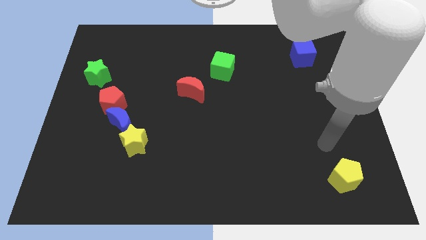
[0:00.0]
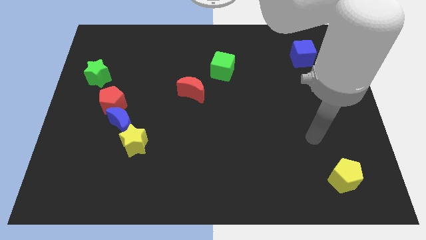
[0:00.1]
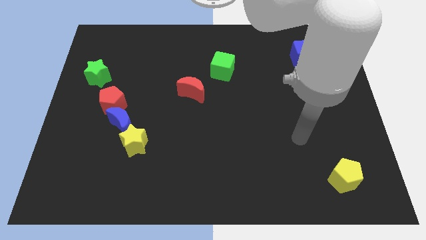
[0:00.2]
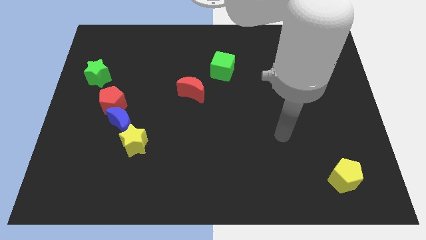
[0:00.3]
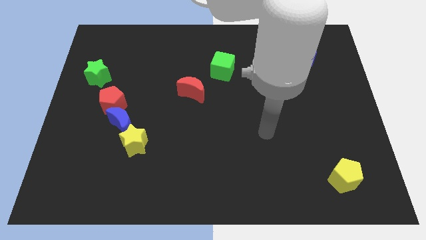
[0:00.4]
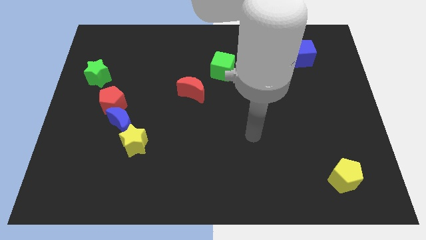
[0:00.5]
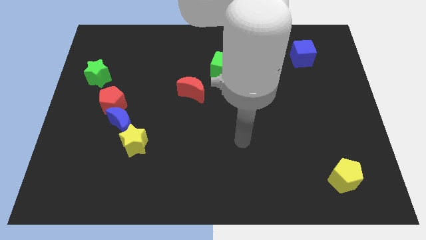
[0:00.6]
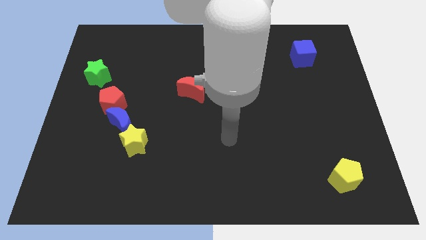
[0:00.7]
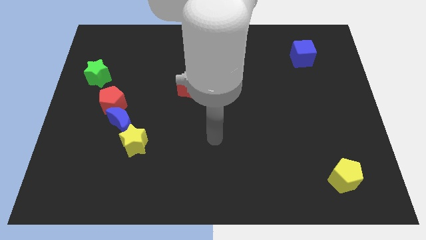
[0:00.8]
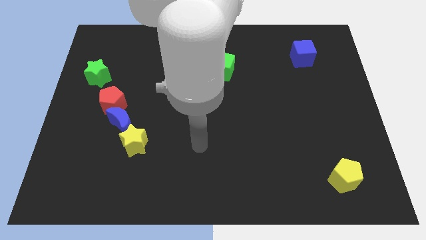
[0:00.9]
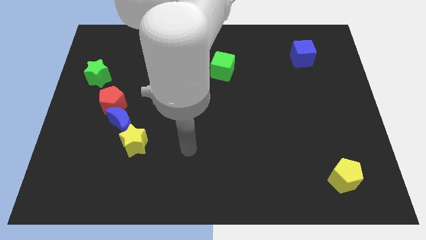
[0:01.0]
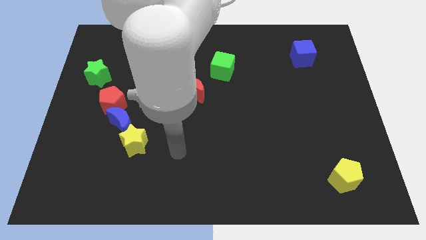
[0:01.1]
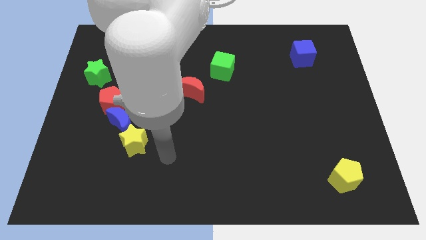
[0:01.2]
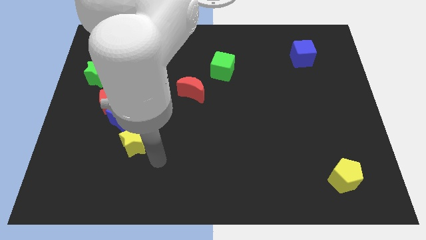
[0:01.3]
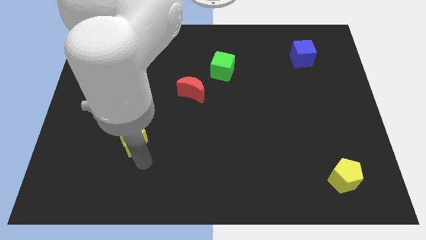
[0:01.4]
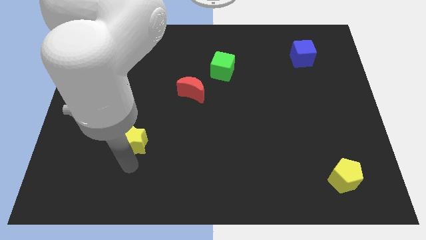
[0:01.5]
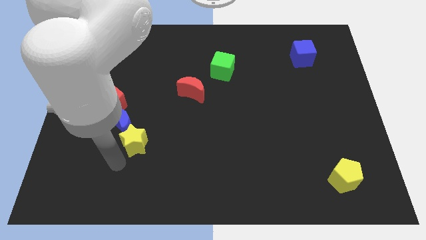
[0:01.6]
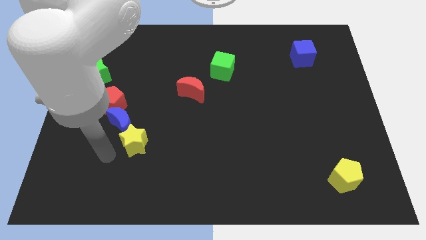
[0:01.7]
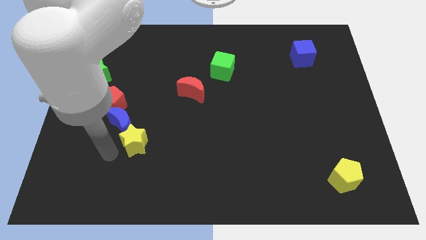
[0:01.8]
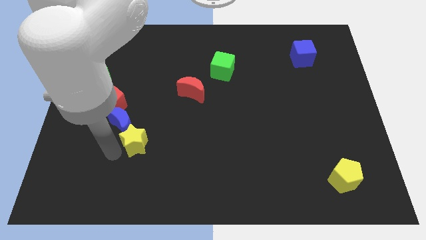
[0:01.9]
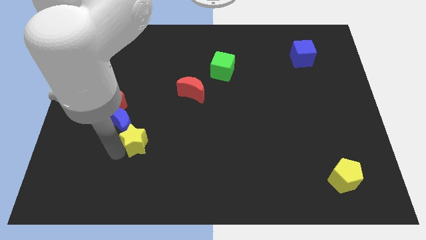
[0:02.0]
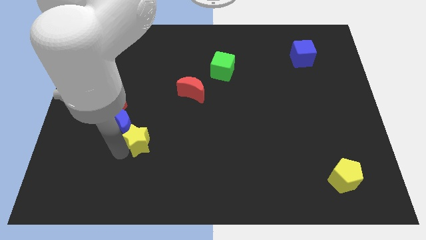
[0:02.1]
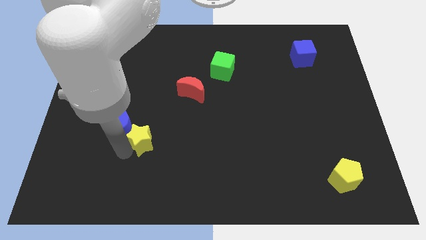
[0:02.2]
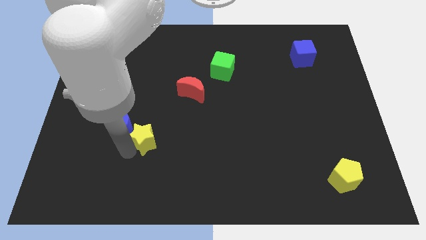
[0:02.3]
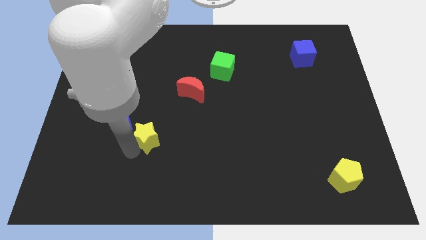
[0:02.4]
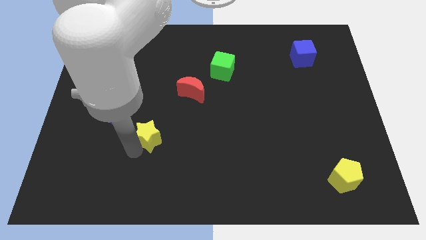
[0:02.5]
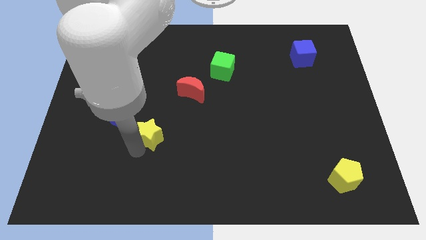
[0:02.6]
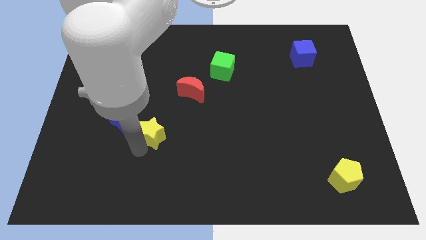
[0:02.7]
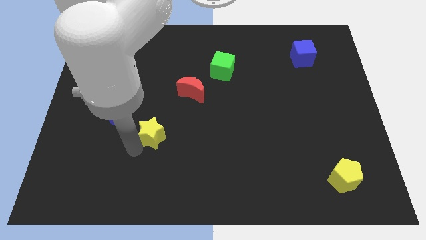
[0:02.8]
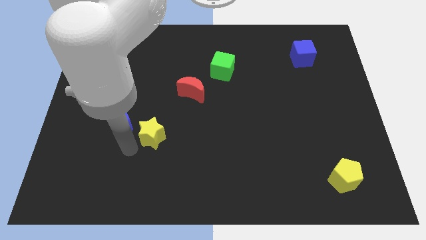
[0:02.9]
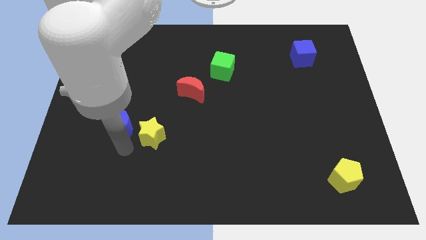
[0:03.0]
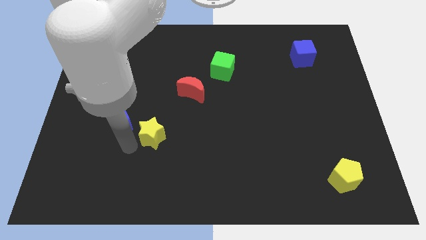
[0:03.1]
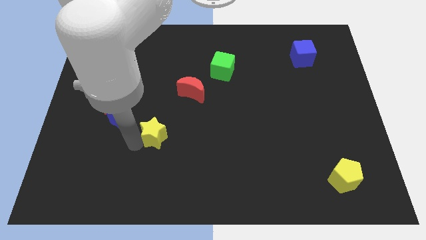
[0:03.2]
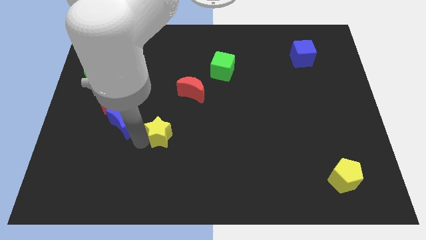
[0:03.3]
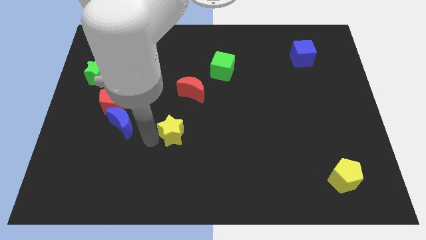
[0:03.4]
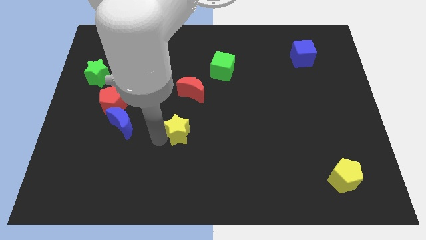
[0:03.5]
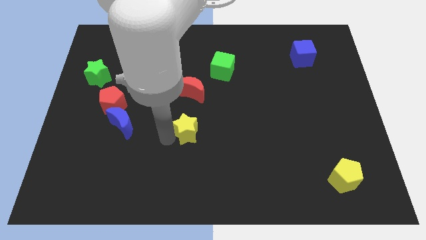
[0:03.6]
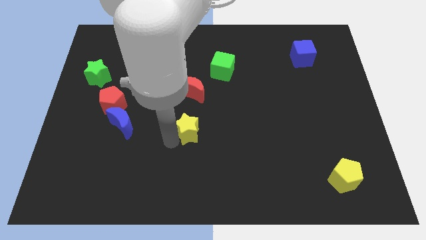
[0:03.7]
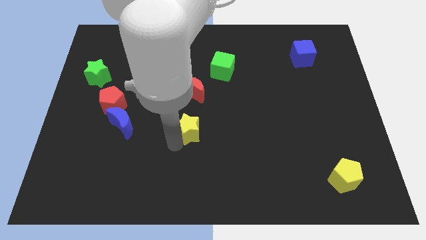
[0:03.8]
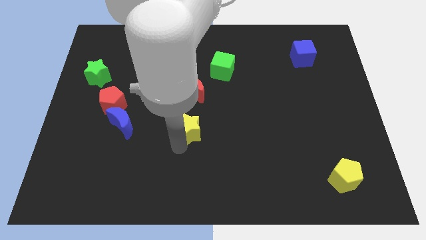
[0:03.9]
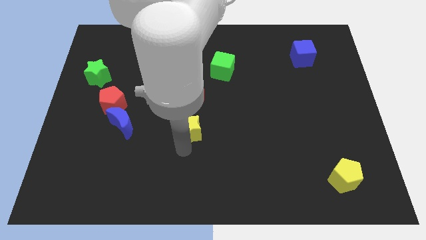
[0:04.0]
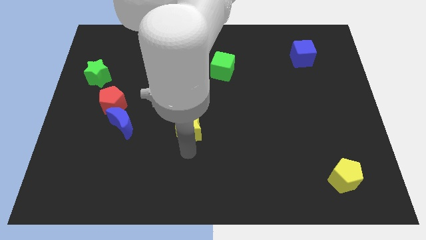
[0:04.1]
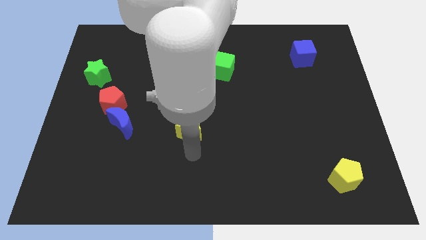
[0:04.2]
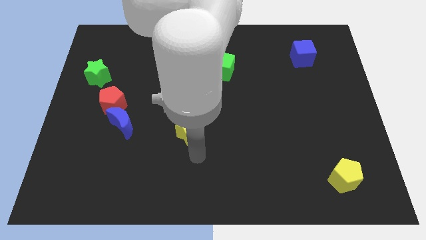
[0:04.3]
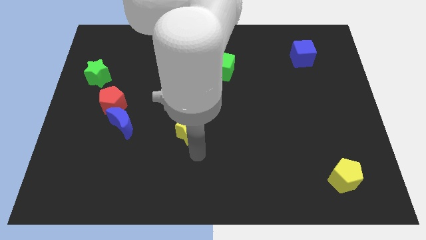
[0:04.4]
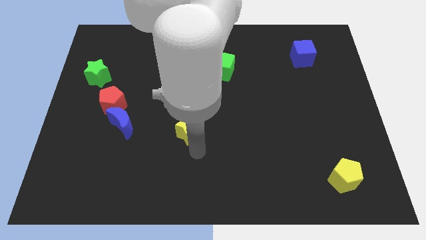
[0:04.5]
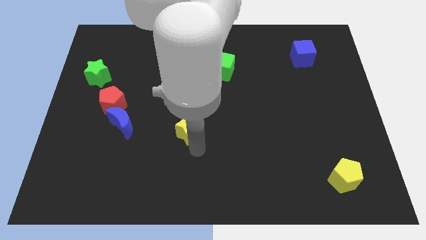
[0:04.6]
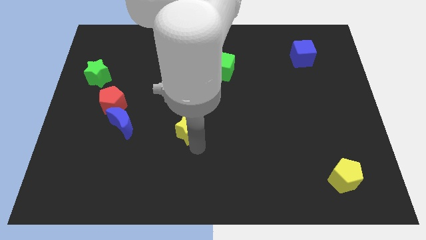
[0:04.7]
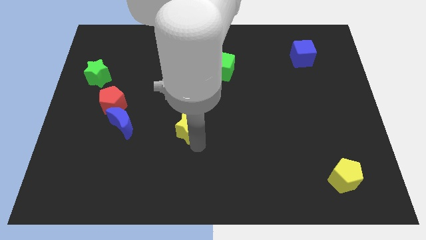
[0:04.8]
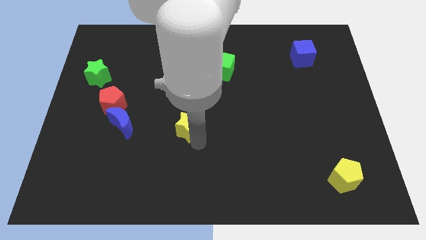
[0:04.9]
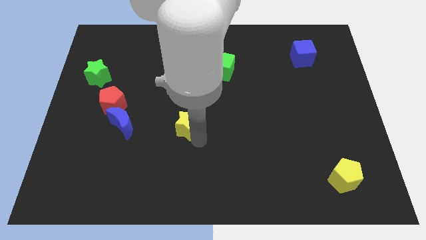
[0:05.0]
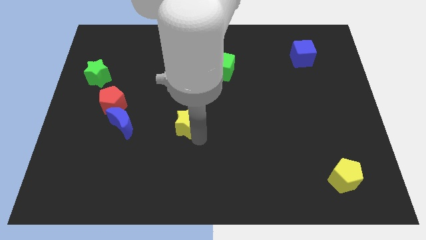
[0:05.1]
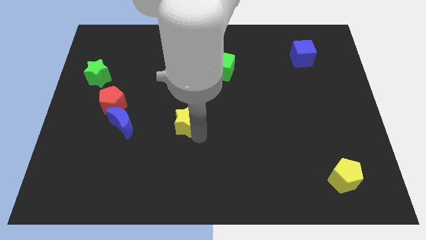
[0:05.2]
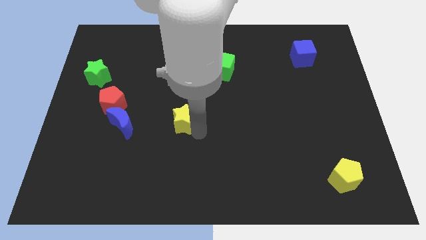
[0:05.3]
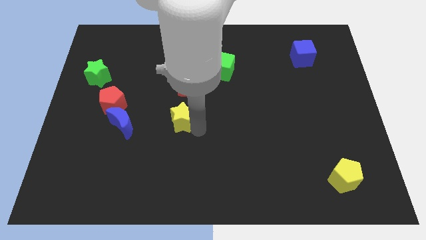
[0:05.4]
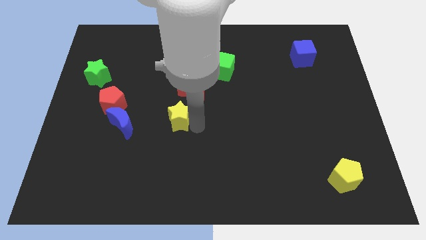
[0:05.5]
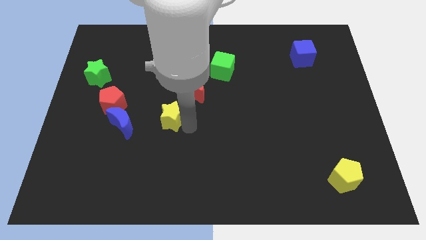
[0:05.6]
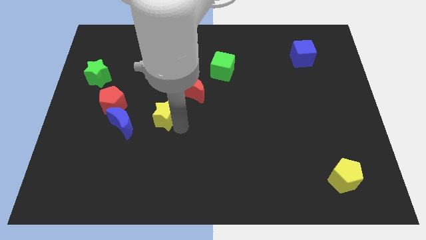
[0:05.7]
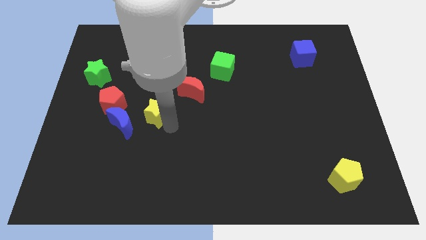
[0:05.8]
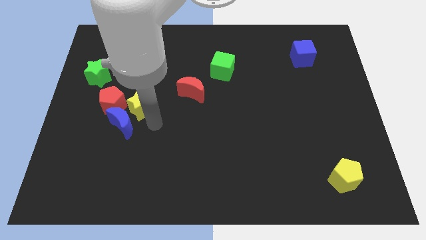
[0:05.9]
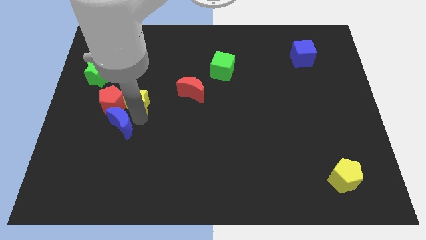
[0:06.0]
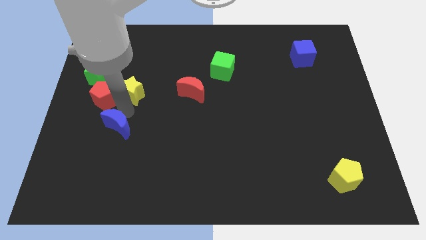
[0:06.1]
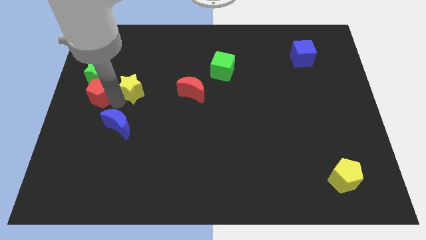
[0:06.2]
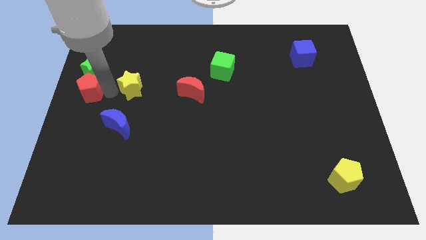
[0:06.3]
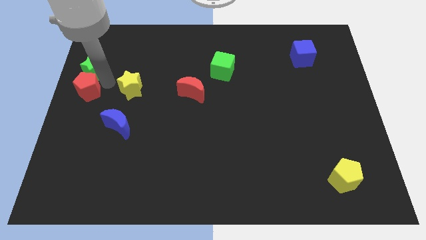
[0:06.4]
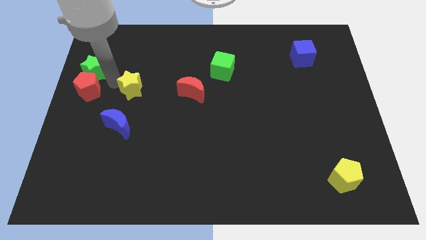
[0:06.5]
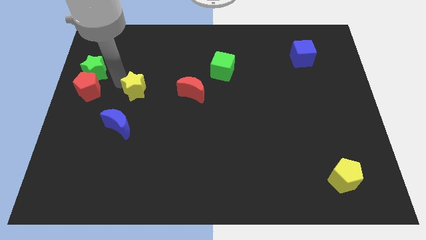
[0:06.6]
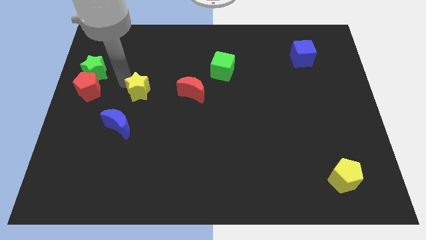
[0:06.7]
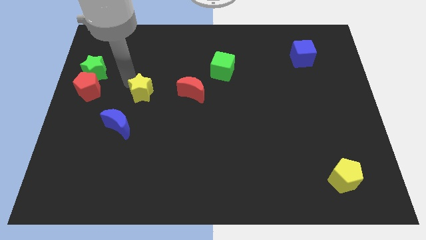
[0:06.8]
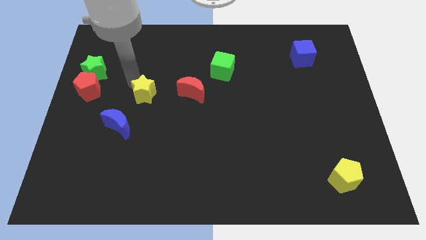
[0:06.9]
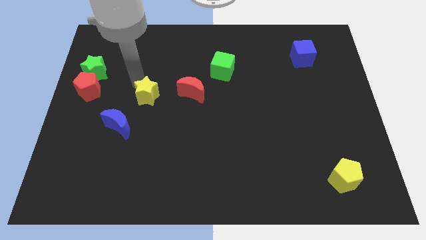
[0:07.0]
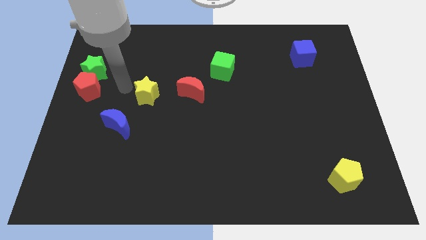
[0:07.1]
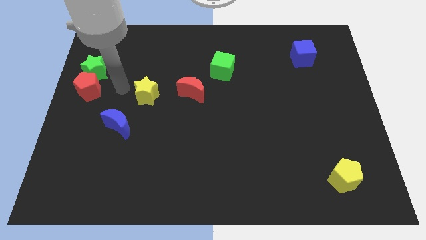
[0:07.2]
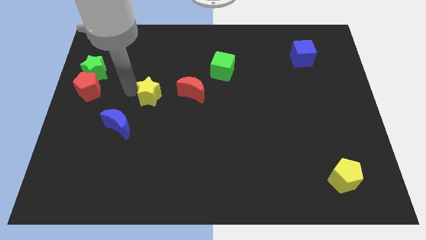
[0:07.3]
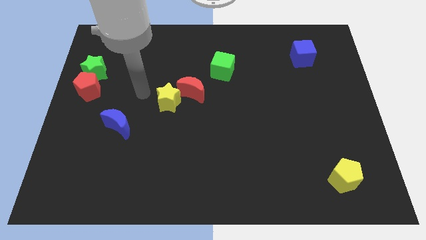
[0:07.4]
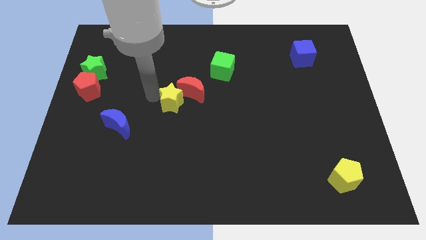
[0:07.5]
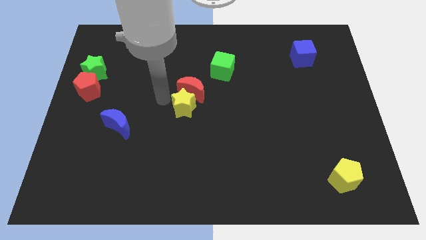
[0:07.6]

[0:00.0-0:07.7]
put the yellow star to the bottom right side of the red moon

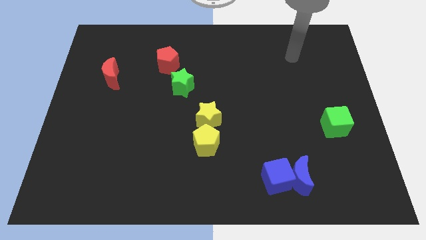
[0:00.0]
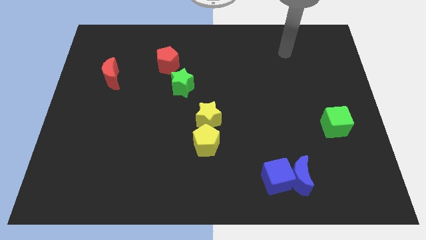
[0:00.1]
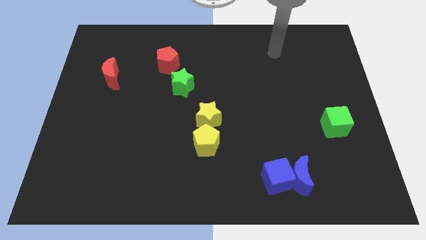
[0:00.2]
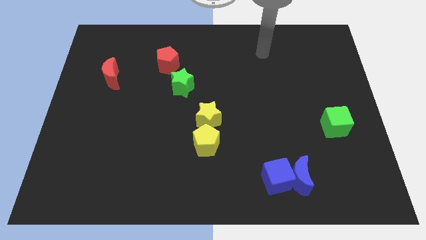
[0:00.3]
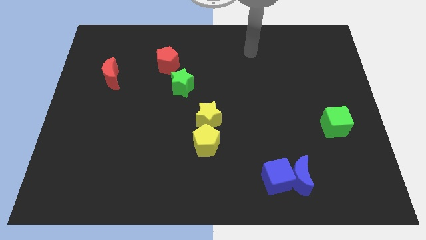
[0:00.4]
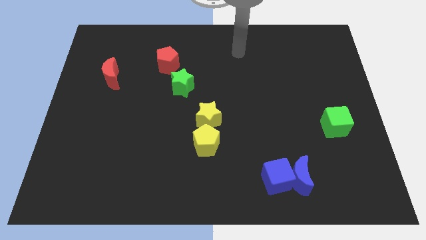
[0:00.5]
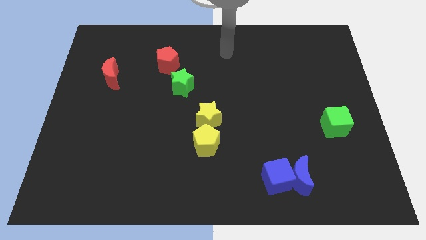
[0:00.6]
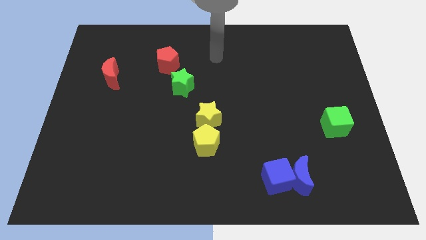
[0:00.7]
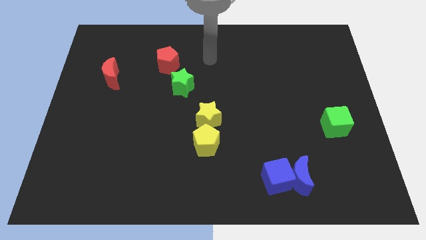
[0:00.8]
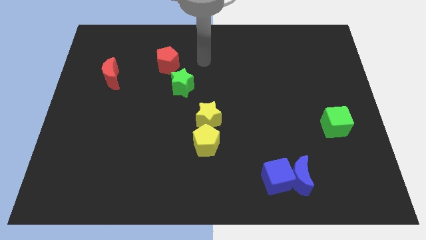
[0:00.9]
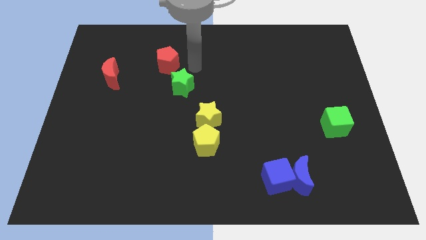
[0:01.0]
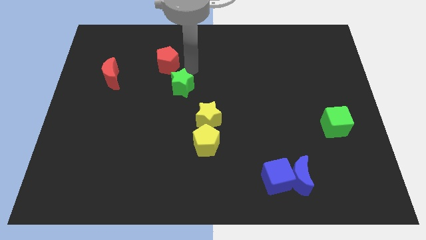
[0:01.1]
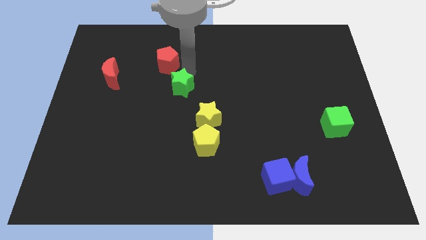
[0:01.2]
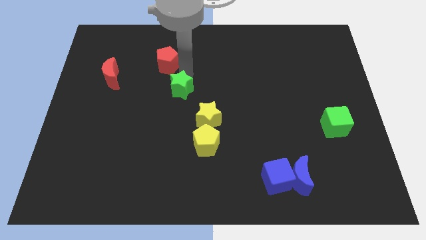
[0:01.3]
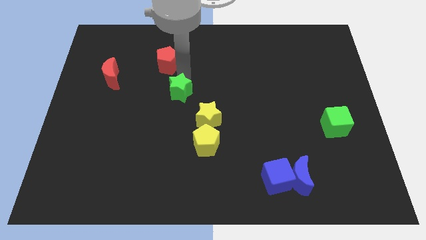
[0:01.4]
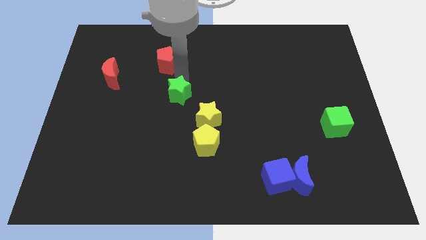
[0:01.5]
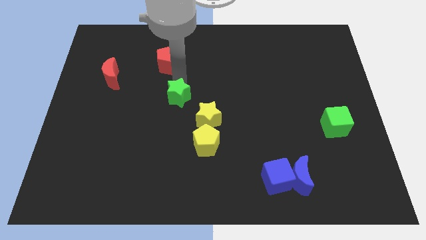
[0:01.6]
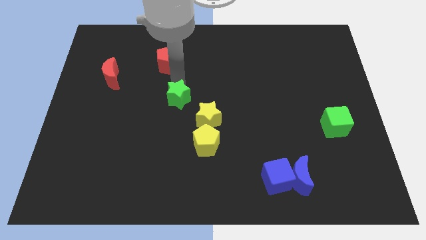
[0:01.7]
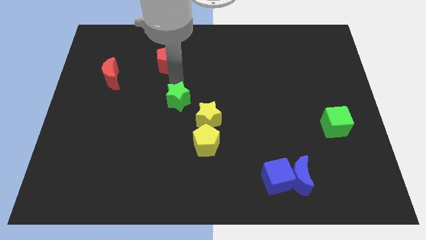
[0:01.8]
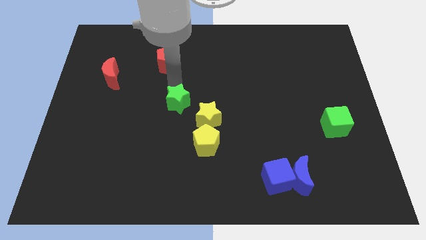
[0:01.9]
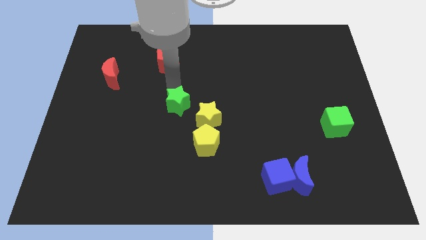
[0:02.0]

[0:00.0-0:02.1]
slide the green star just left of the yellow star
